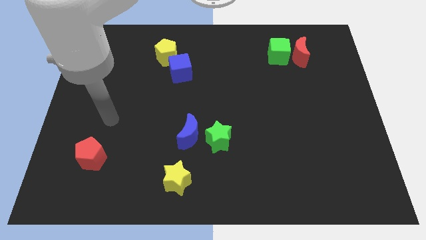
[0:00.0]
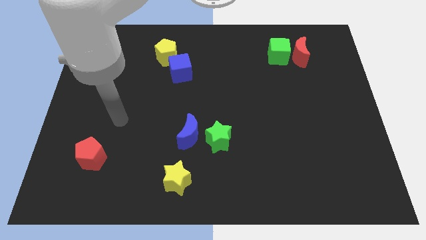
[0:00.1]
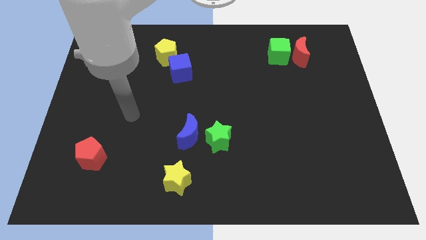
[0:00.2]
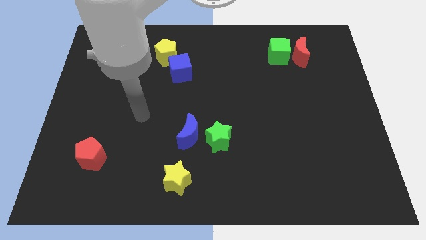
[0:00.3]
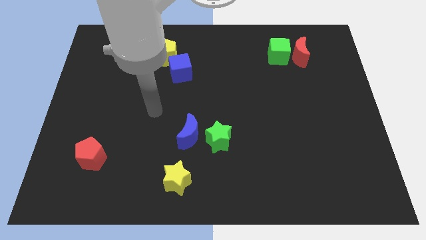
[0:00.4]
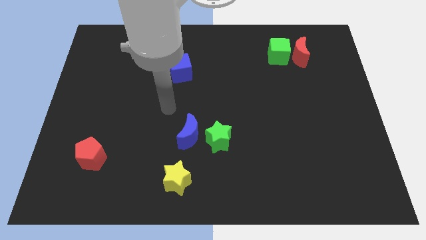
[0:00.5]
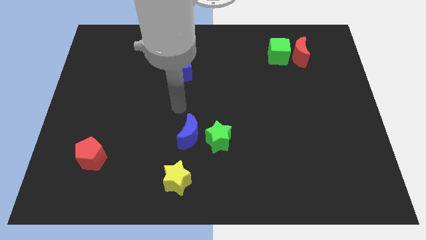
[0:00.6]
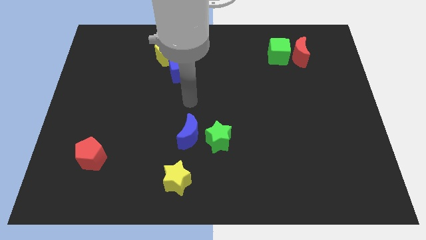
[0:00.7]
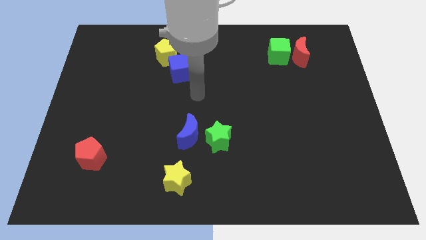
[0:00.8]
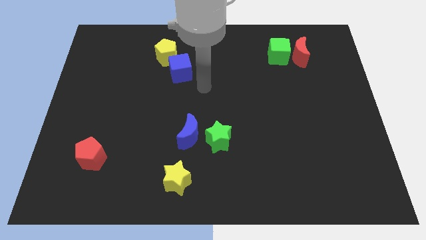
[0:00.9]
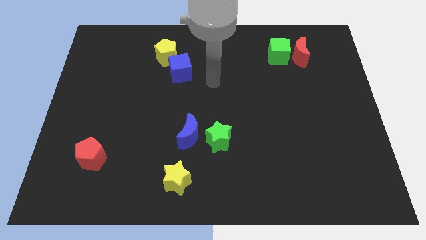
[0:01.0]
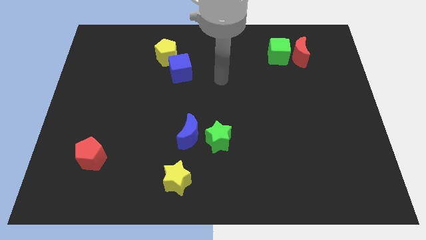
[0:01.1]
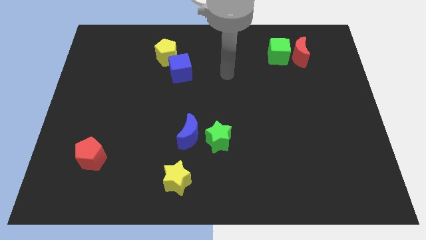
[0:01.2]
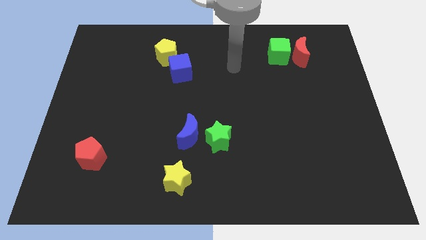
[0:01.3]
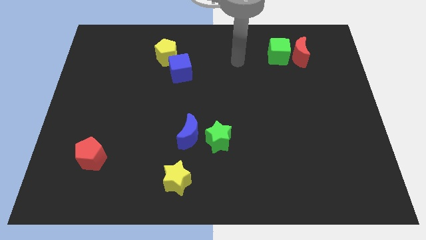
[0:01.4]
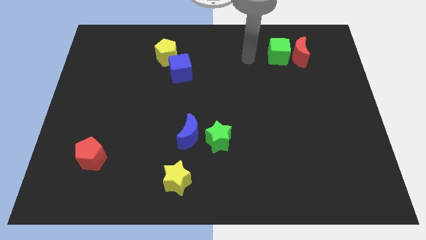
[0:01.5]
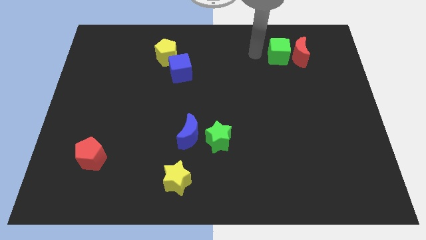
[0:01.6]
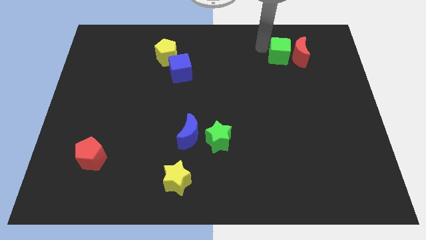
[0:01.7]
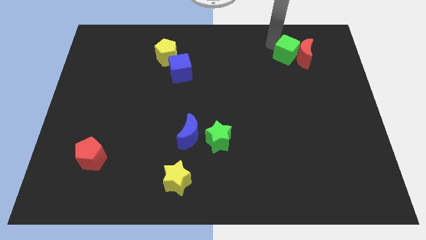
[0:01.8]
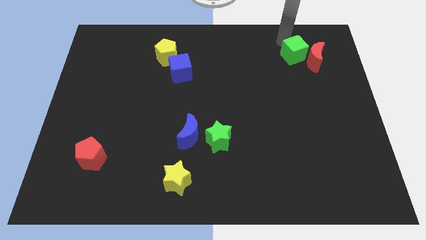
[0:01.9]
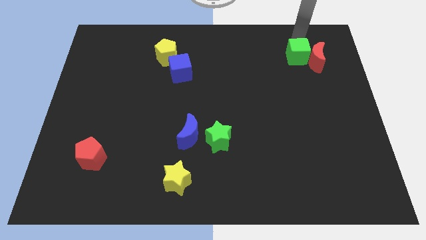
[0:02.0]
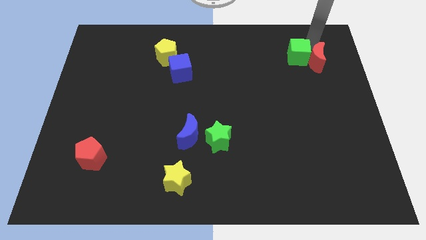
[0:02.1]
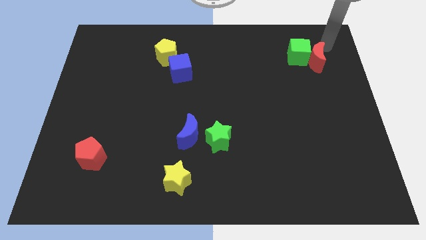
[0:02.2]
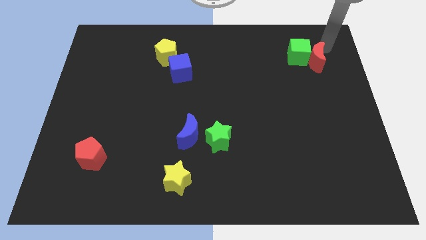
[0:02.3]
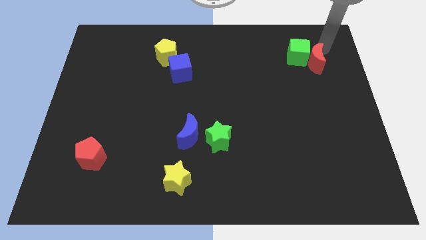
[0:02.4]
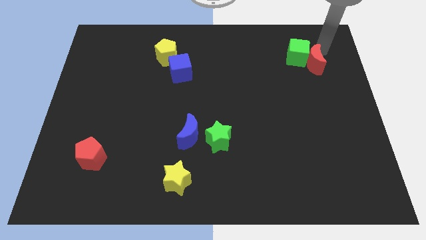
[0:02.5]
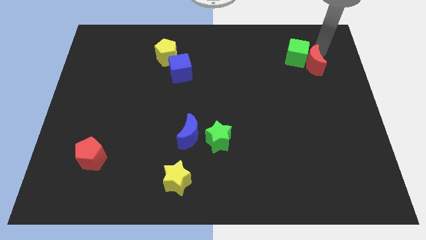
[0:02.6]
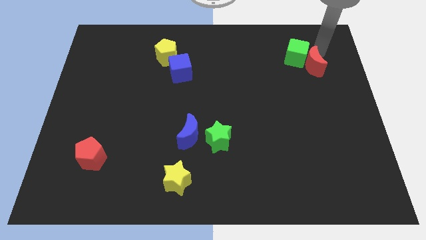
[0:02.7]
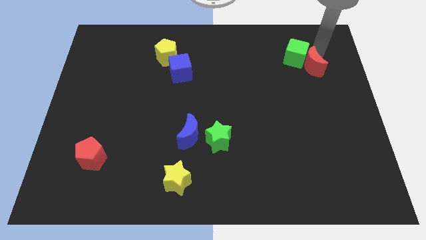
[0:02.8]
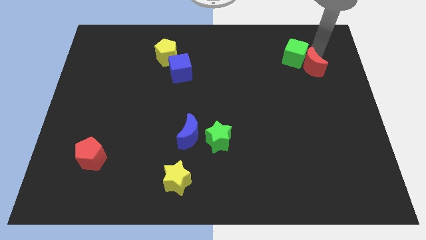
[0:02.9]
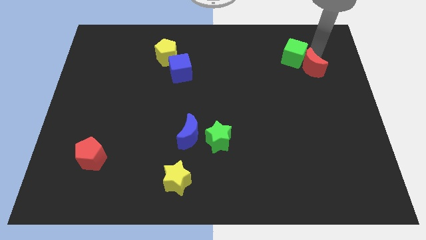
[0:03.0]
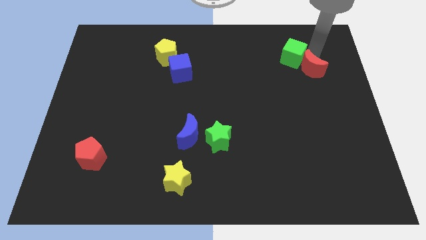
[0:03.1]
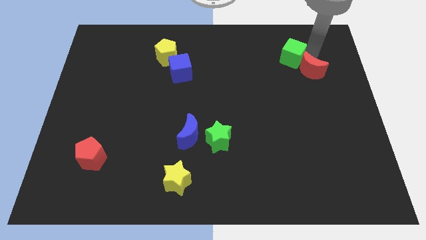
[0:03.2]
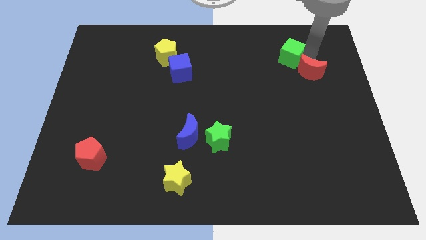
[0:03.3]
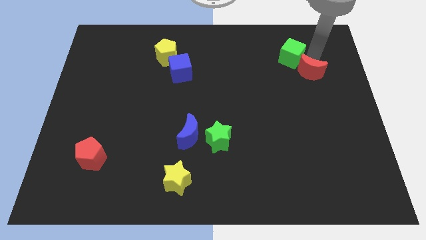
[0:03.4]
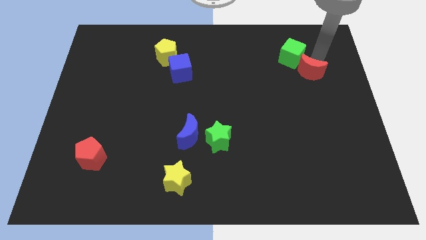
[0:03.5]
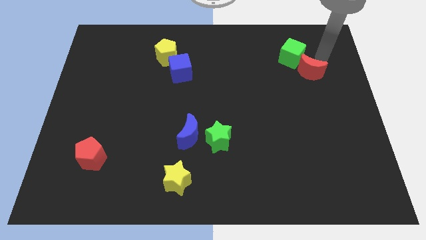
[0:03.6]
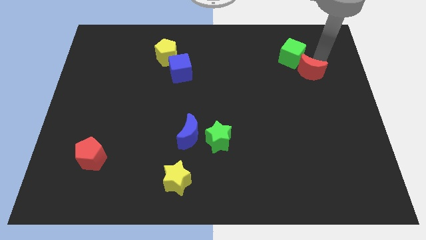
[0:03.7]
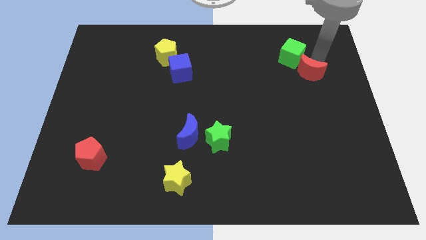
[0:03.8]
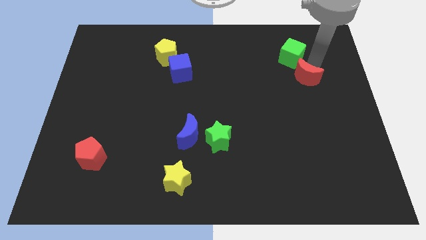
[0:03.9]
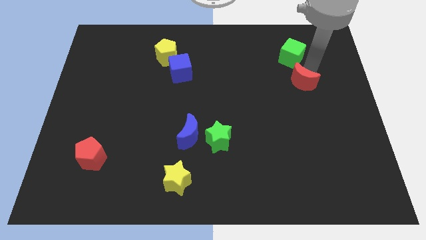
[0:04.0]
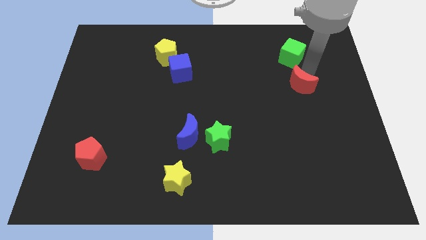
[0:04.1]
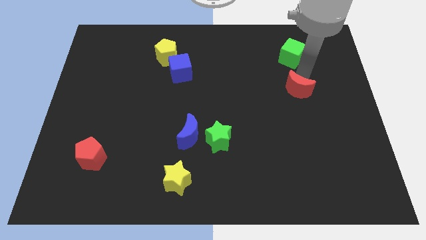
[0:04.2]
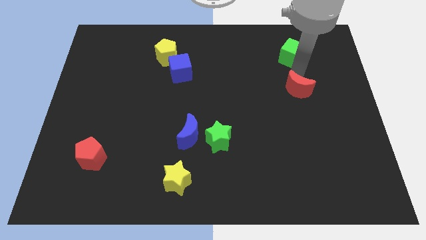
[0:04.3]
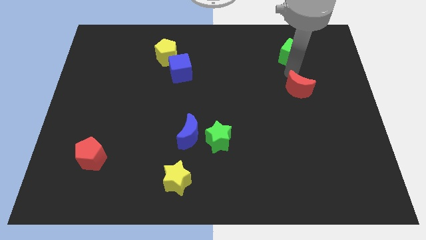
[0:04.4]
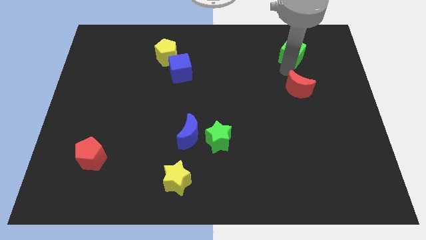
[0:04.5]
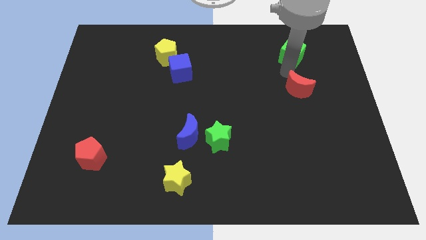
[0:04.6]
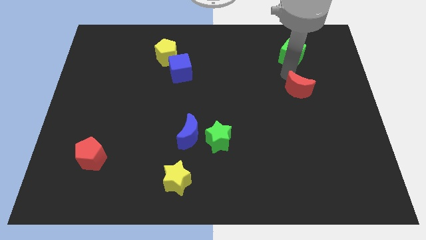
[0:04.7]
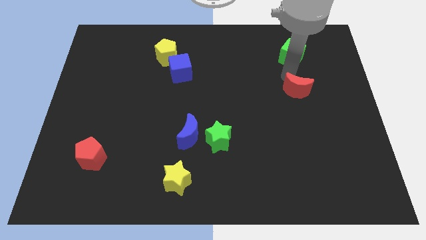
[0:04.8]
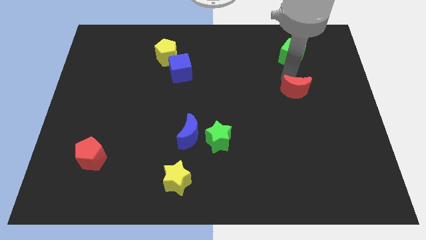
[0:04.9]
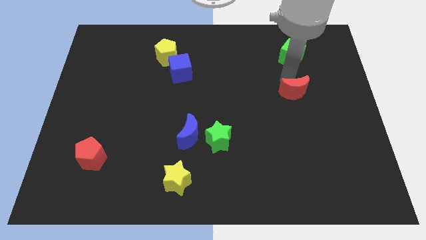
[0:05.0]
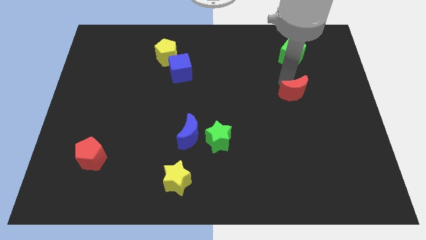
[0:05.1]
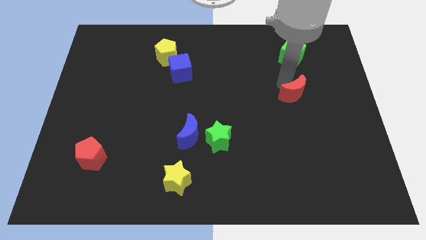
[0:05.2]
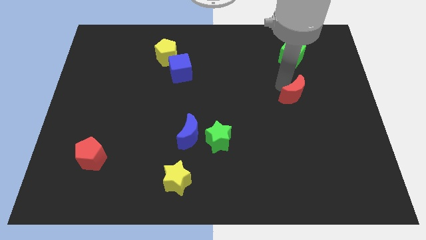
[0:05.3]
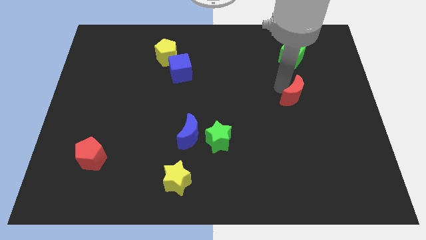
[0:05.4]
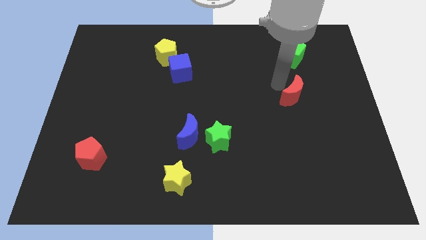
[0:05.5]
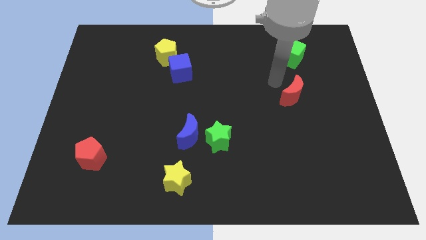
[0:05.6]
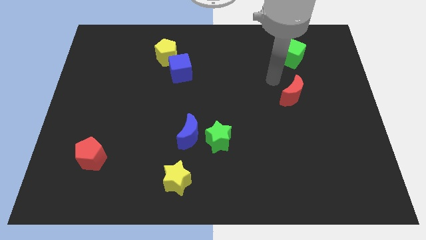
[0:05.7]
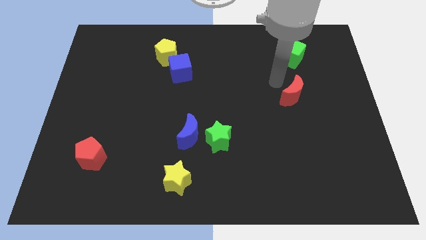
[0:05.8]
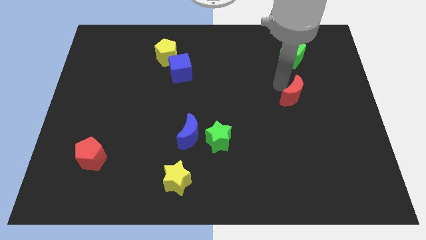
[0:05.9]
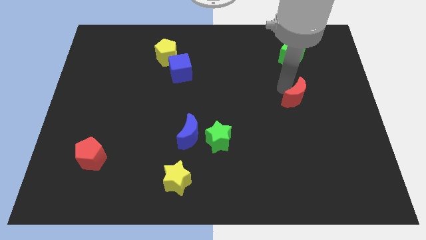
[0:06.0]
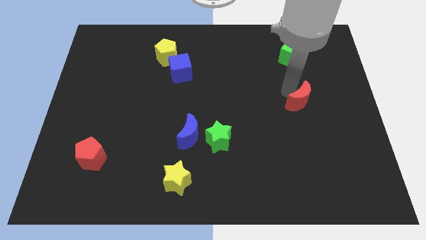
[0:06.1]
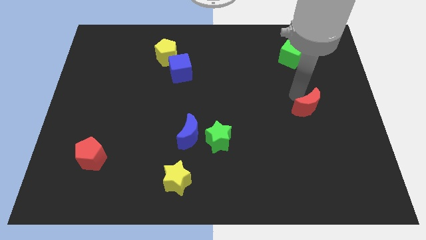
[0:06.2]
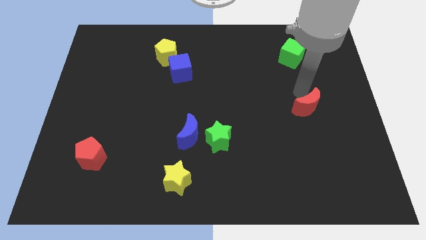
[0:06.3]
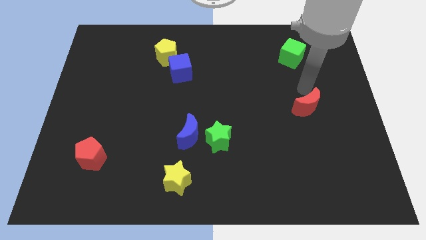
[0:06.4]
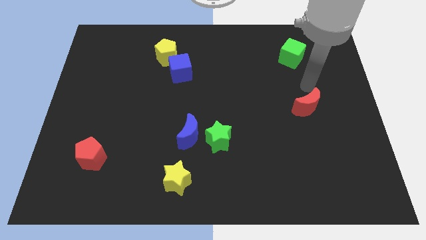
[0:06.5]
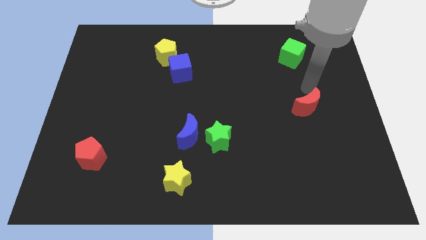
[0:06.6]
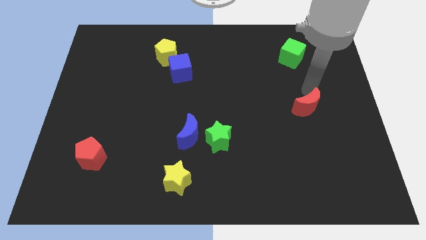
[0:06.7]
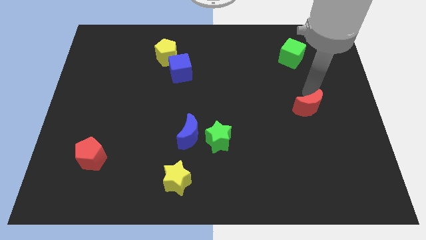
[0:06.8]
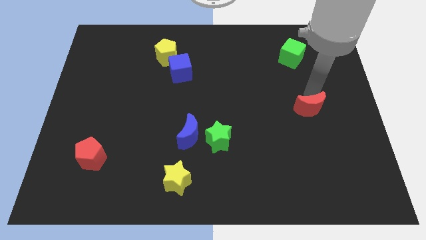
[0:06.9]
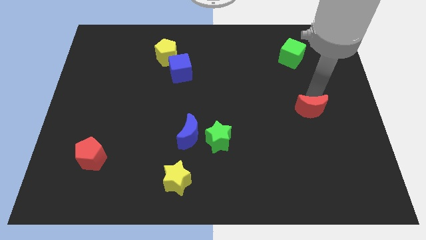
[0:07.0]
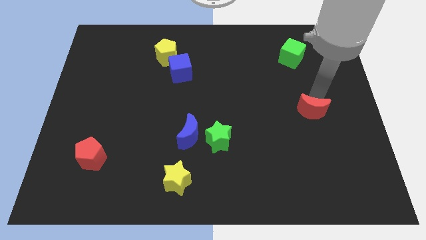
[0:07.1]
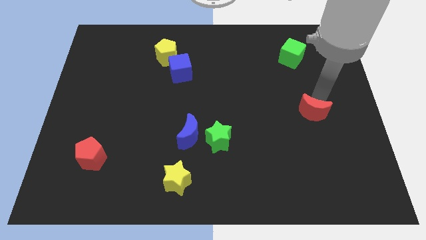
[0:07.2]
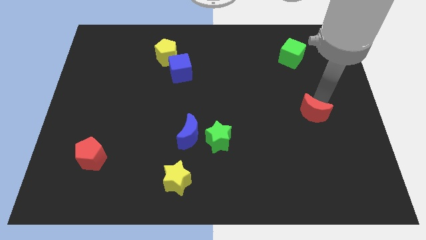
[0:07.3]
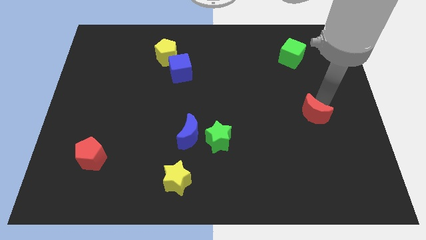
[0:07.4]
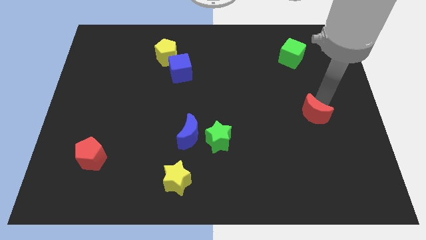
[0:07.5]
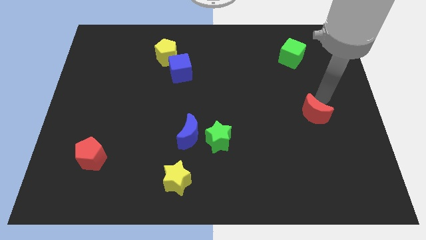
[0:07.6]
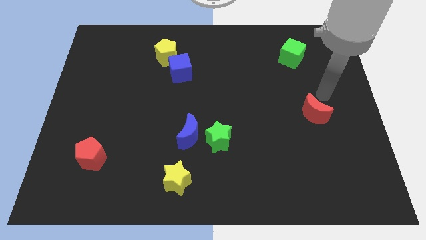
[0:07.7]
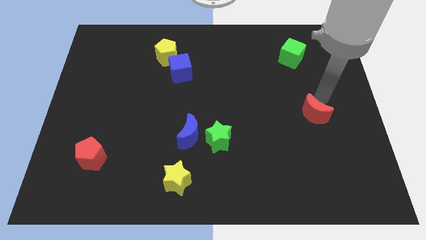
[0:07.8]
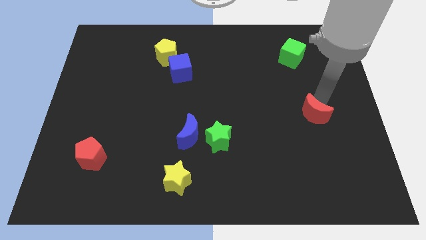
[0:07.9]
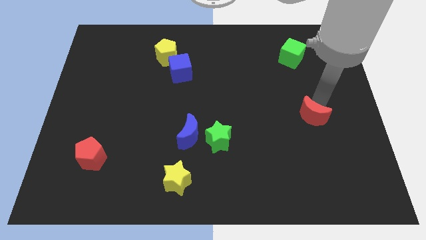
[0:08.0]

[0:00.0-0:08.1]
move the red moon down
